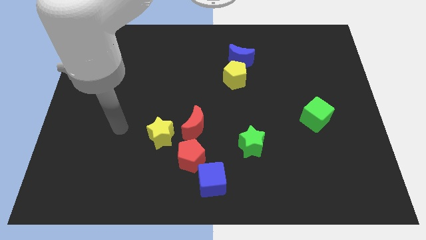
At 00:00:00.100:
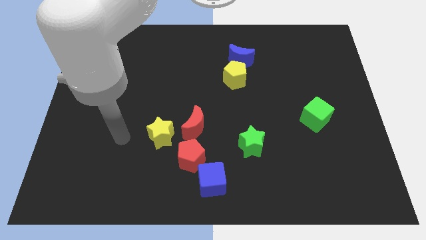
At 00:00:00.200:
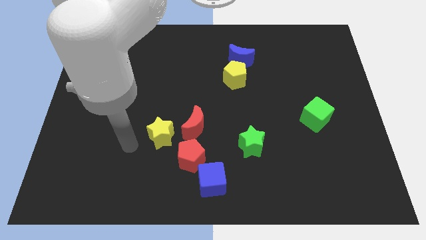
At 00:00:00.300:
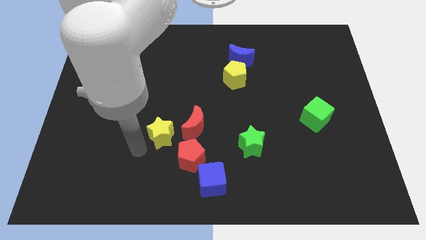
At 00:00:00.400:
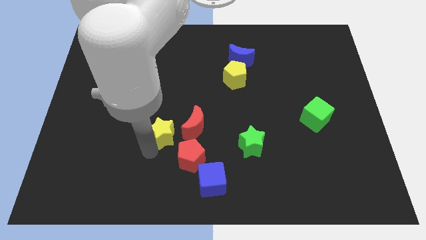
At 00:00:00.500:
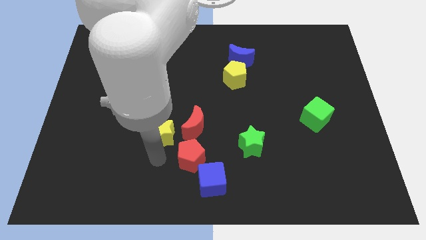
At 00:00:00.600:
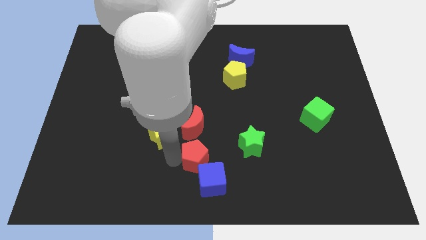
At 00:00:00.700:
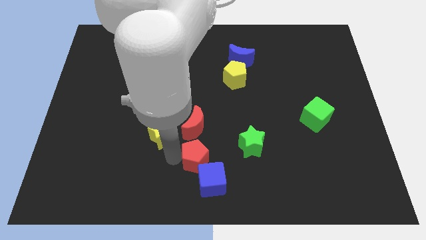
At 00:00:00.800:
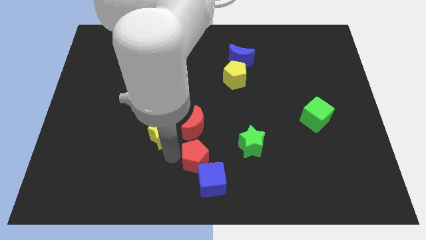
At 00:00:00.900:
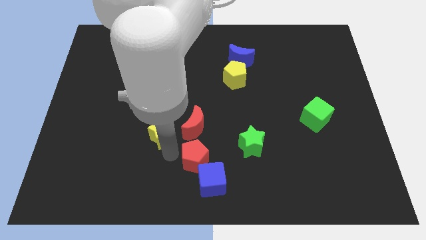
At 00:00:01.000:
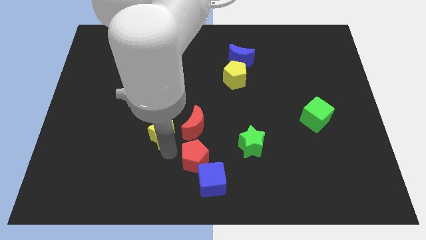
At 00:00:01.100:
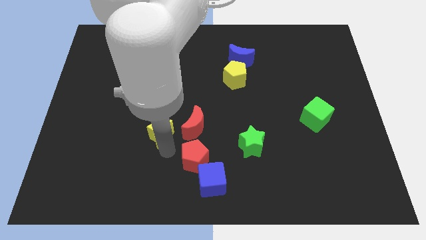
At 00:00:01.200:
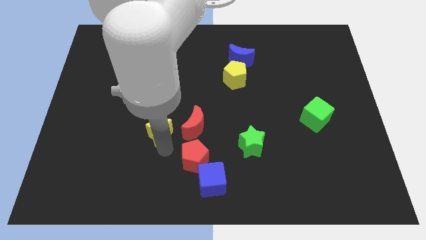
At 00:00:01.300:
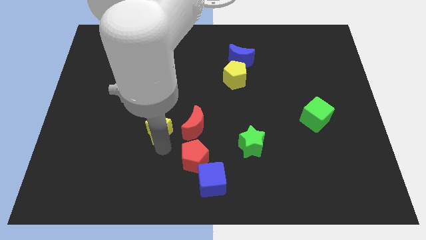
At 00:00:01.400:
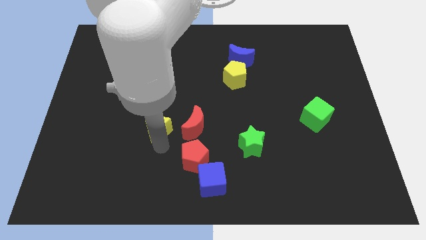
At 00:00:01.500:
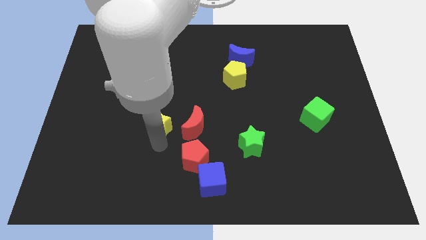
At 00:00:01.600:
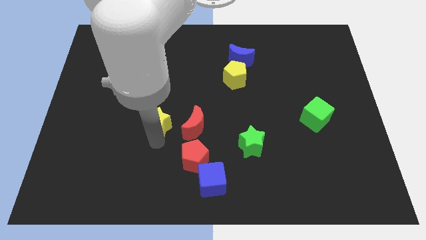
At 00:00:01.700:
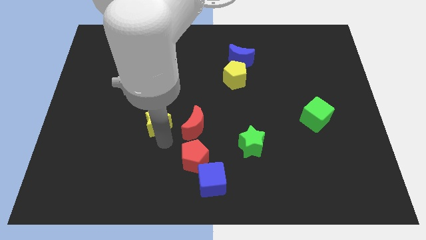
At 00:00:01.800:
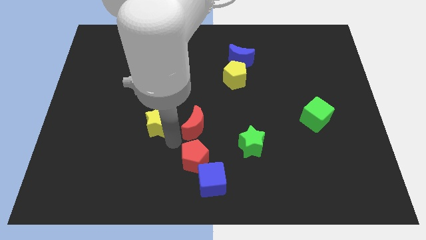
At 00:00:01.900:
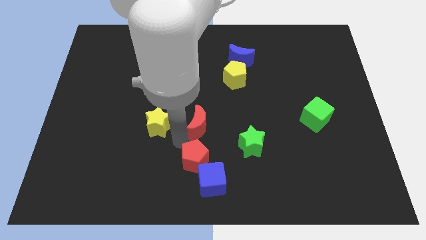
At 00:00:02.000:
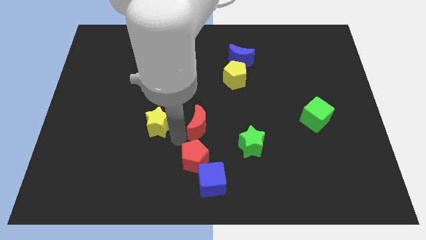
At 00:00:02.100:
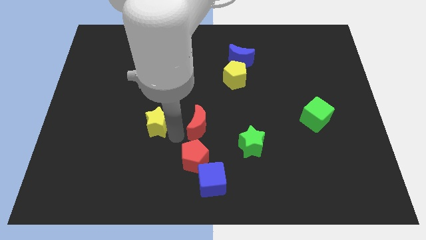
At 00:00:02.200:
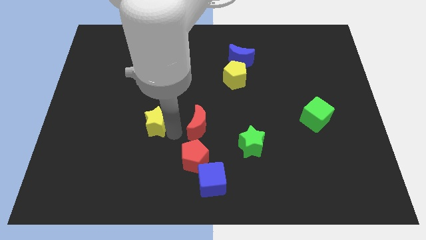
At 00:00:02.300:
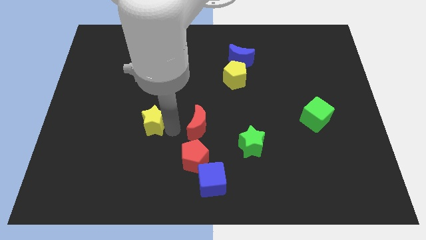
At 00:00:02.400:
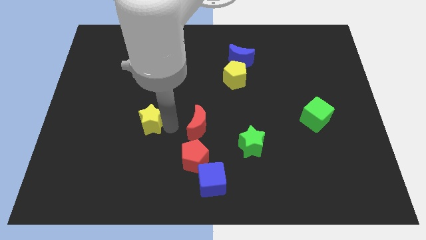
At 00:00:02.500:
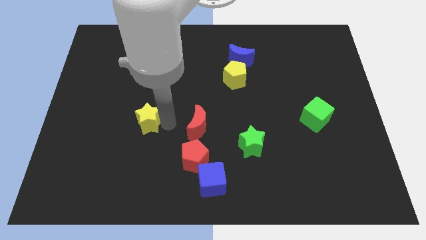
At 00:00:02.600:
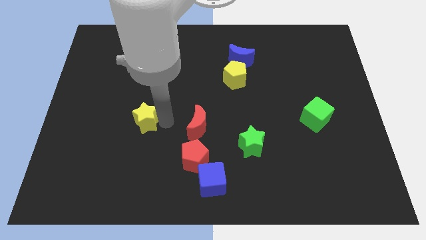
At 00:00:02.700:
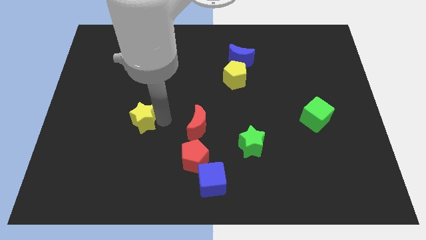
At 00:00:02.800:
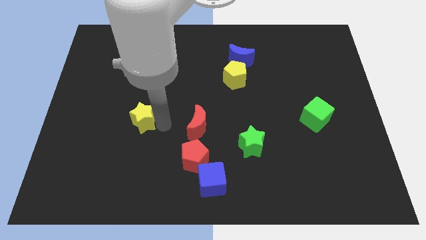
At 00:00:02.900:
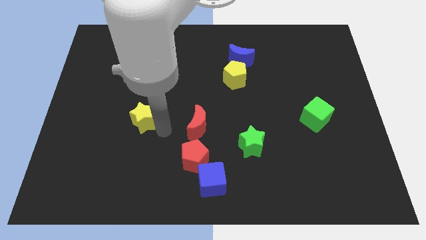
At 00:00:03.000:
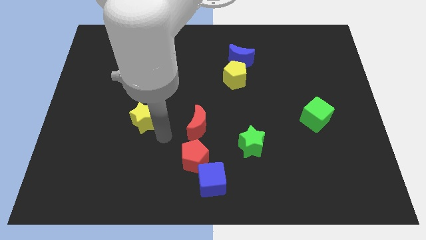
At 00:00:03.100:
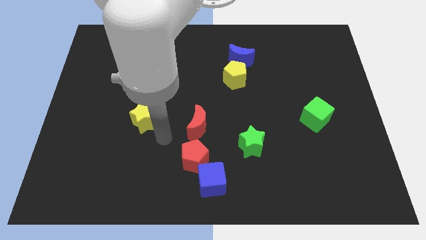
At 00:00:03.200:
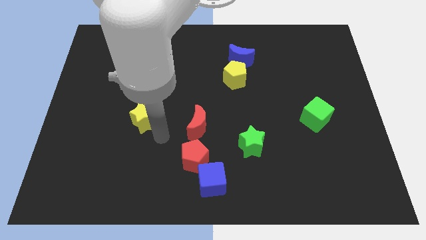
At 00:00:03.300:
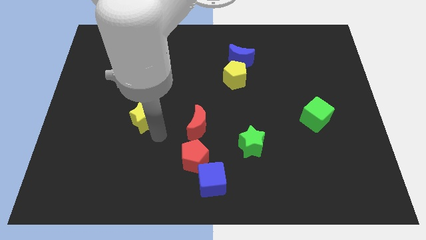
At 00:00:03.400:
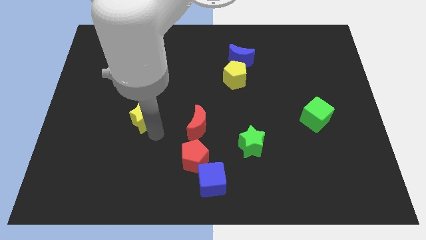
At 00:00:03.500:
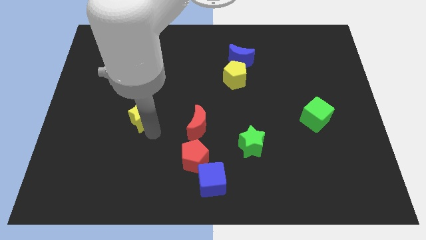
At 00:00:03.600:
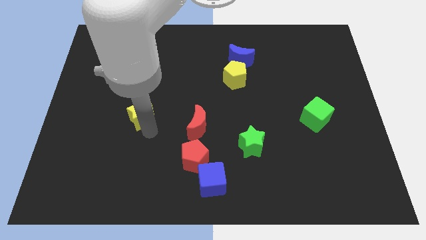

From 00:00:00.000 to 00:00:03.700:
slide the yellow star slightly upwards and then left

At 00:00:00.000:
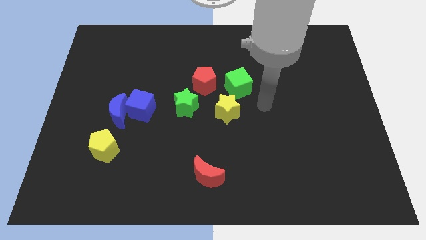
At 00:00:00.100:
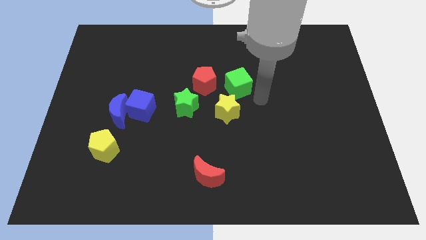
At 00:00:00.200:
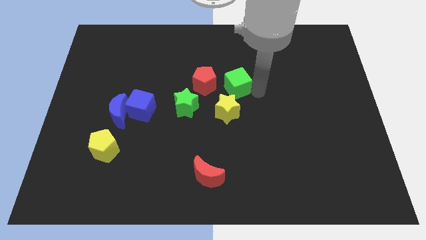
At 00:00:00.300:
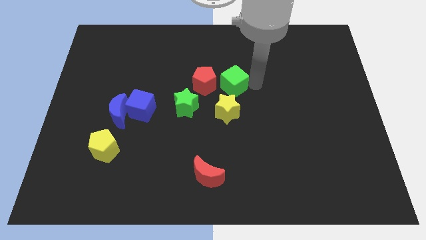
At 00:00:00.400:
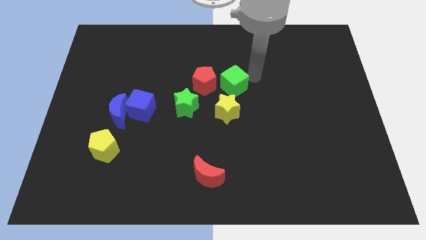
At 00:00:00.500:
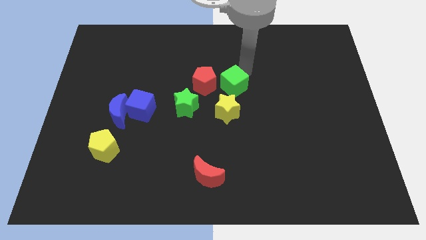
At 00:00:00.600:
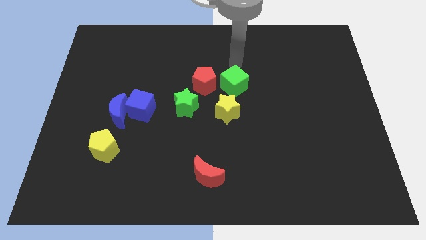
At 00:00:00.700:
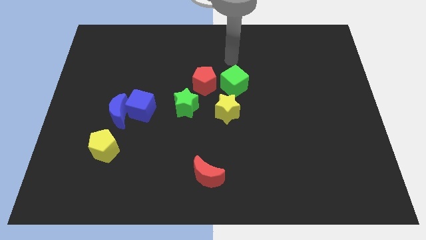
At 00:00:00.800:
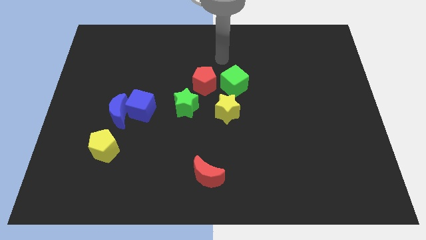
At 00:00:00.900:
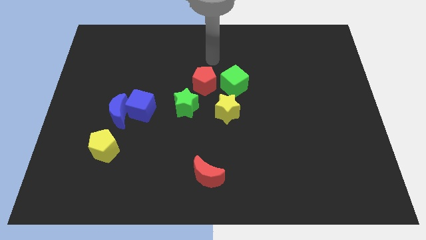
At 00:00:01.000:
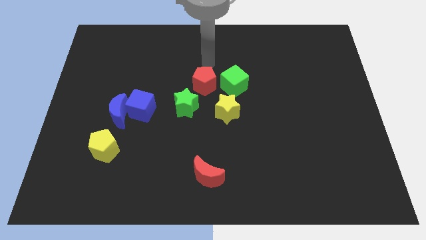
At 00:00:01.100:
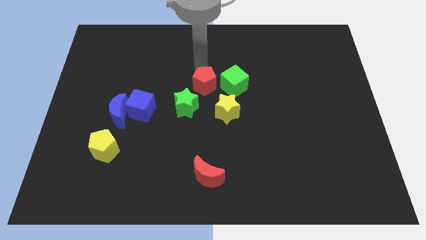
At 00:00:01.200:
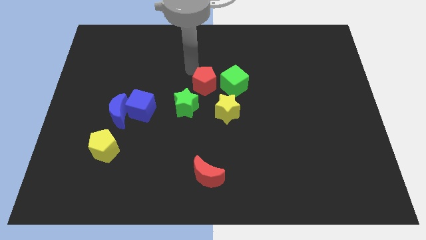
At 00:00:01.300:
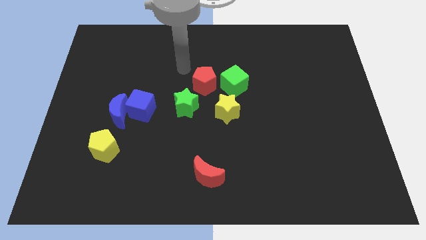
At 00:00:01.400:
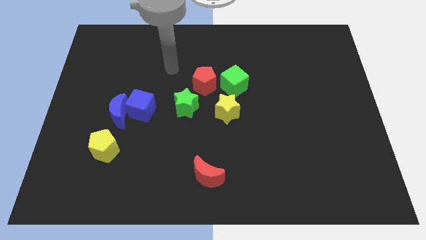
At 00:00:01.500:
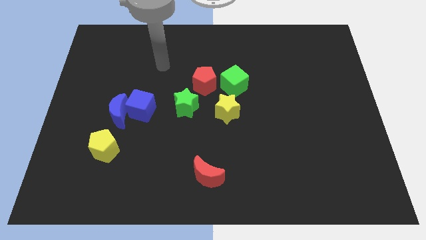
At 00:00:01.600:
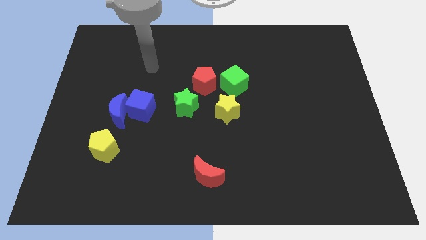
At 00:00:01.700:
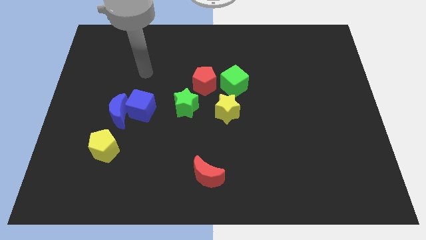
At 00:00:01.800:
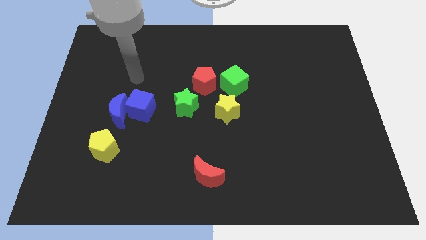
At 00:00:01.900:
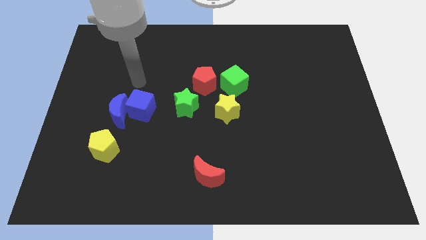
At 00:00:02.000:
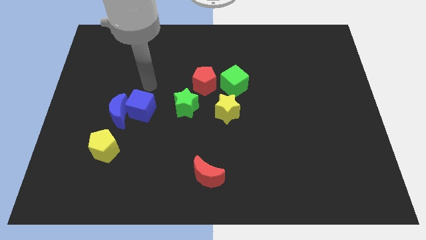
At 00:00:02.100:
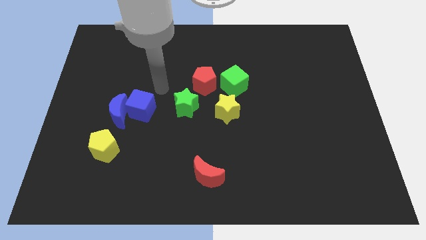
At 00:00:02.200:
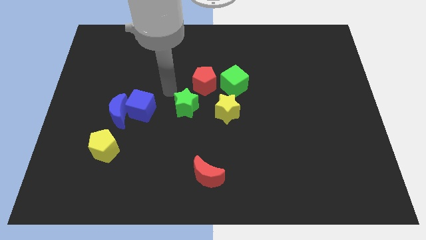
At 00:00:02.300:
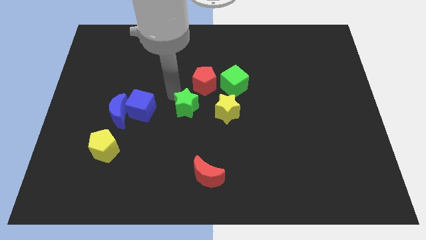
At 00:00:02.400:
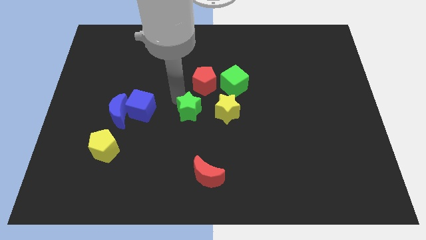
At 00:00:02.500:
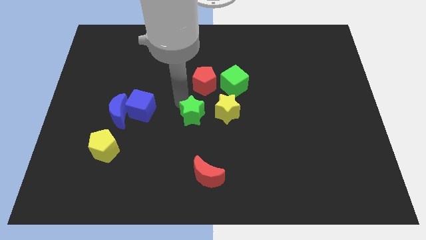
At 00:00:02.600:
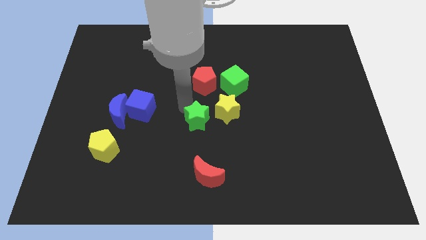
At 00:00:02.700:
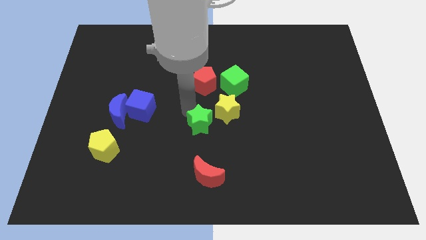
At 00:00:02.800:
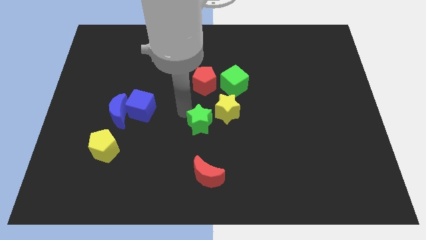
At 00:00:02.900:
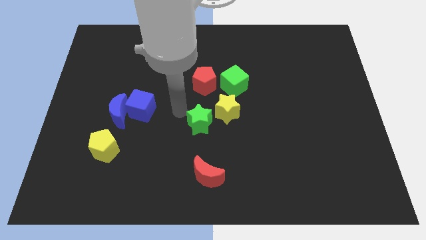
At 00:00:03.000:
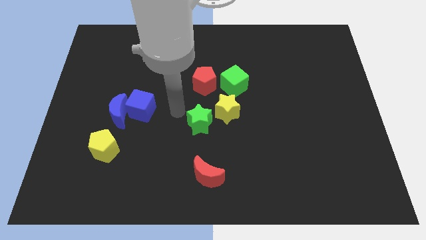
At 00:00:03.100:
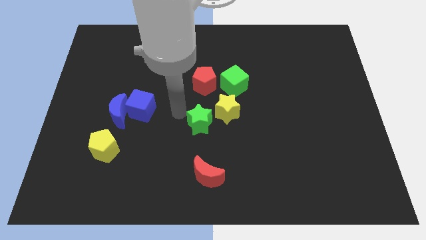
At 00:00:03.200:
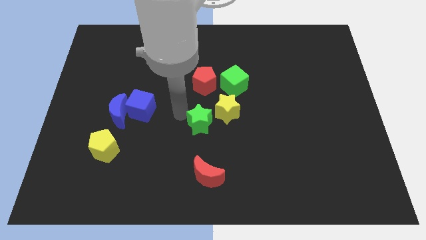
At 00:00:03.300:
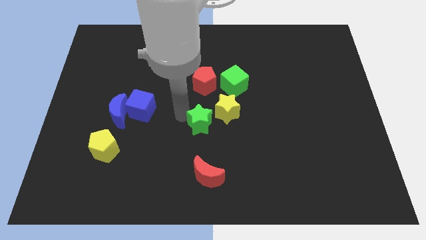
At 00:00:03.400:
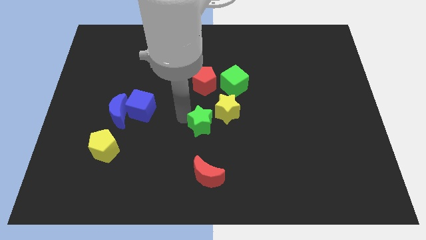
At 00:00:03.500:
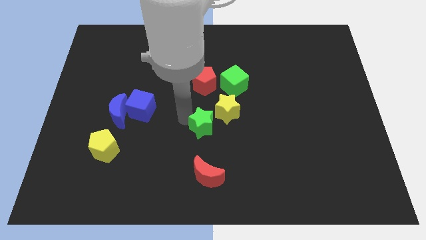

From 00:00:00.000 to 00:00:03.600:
push the green star a bit down and then right

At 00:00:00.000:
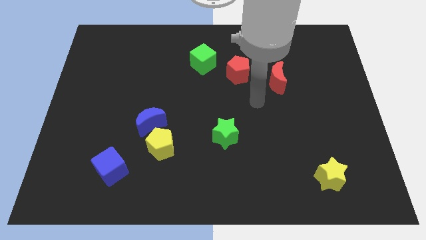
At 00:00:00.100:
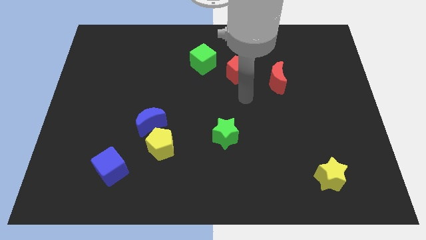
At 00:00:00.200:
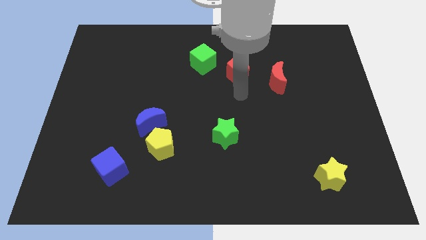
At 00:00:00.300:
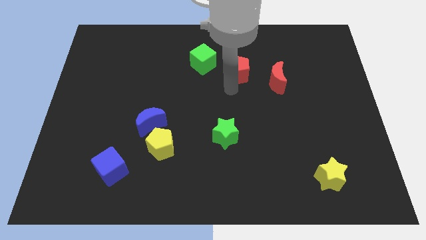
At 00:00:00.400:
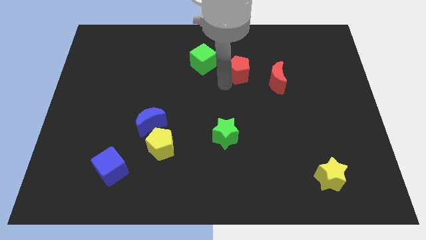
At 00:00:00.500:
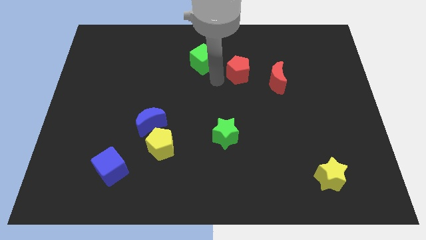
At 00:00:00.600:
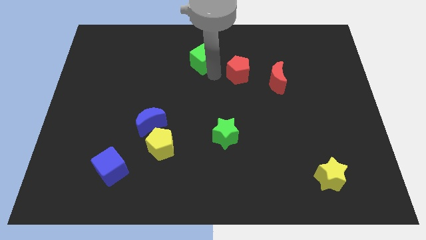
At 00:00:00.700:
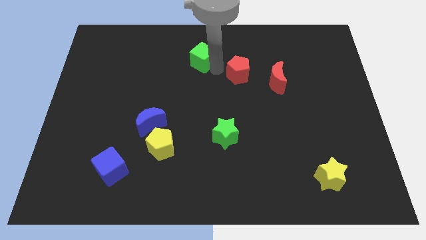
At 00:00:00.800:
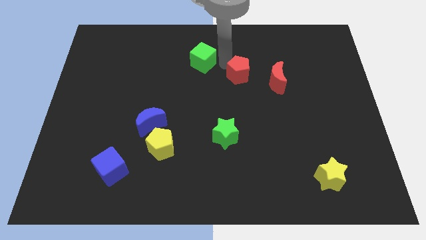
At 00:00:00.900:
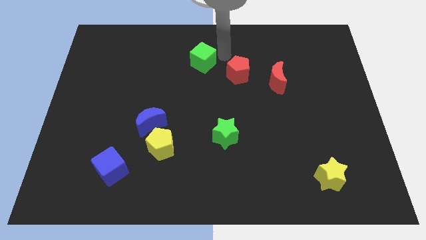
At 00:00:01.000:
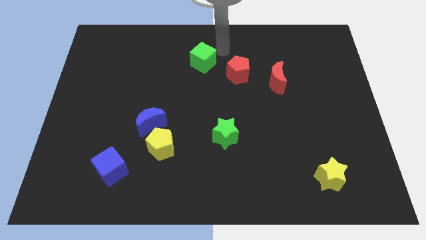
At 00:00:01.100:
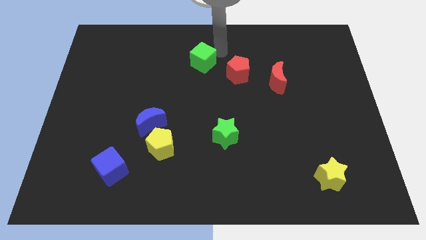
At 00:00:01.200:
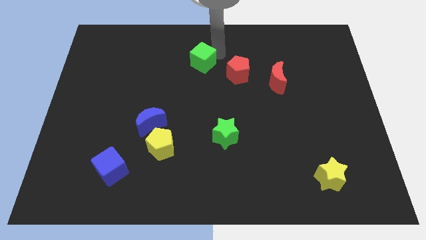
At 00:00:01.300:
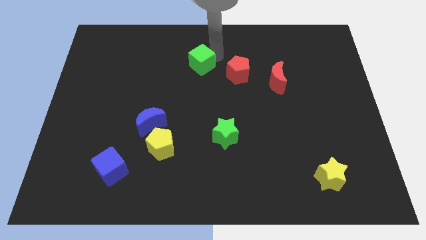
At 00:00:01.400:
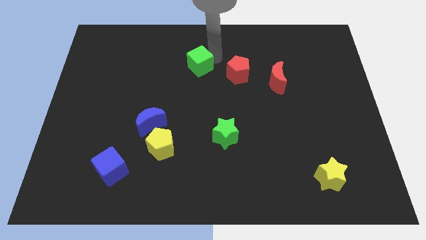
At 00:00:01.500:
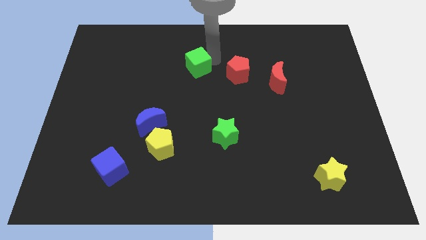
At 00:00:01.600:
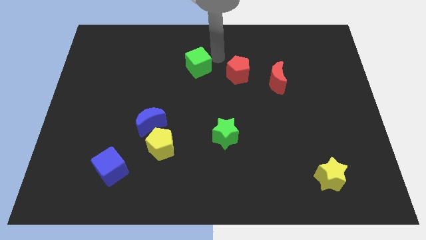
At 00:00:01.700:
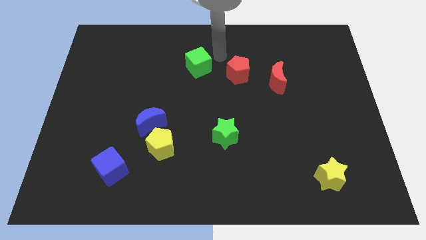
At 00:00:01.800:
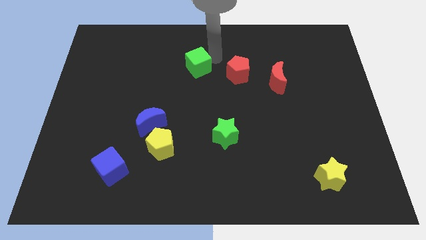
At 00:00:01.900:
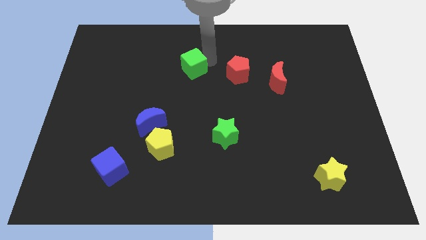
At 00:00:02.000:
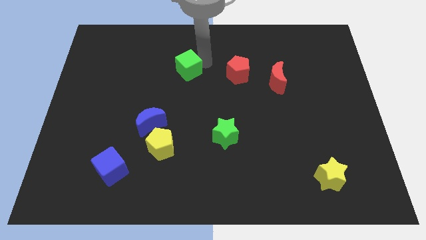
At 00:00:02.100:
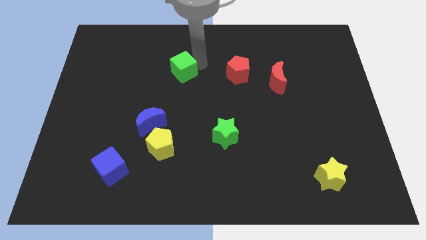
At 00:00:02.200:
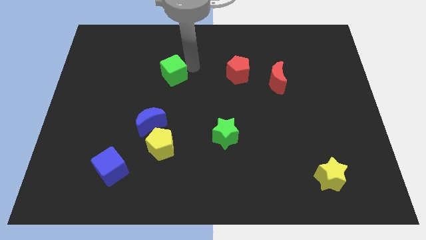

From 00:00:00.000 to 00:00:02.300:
slightly move the green cube downwards and to the left
